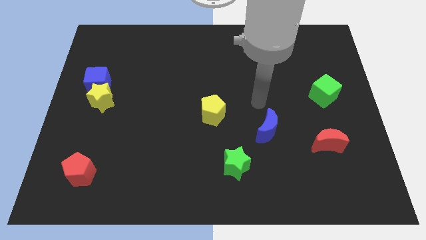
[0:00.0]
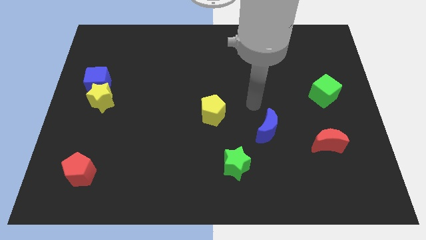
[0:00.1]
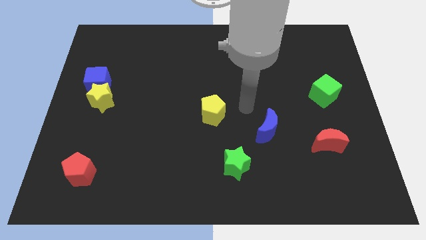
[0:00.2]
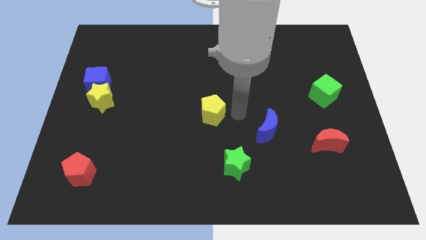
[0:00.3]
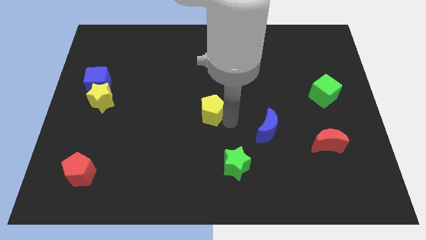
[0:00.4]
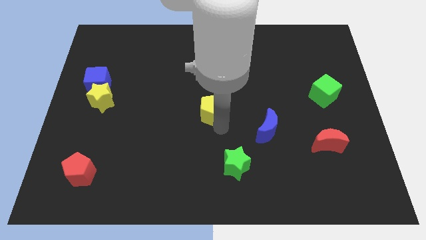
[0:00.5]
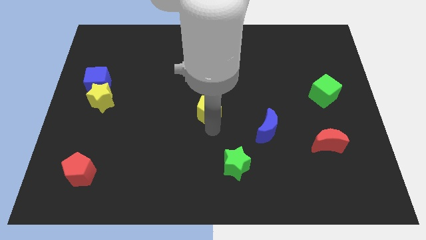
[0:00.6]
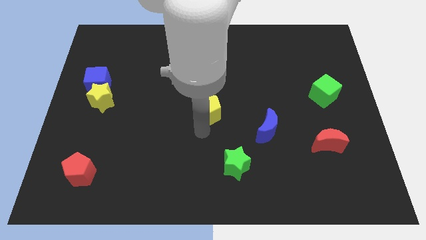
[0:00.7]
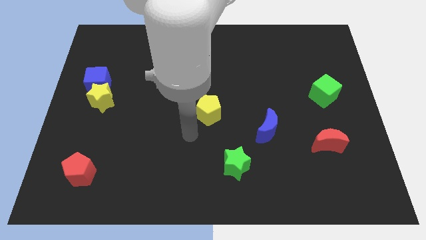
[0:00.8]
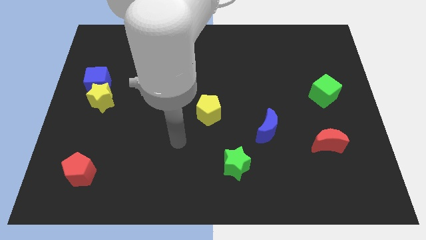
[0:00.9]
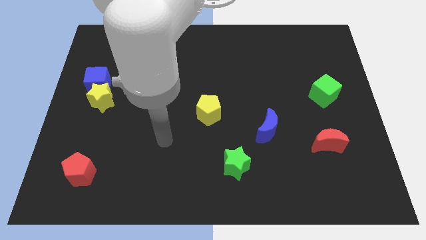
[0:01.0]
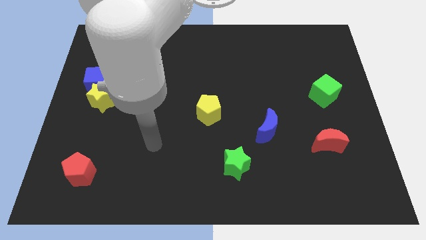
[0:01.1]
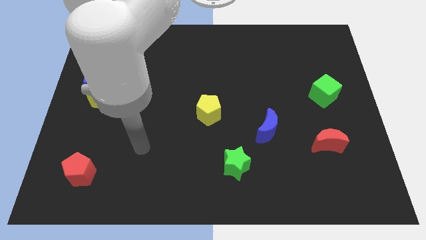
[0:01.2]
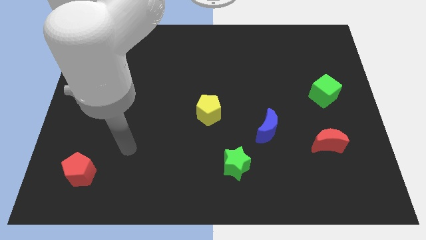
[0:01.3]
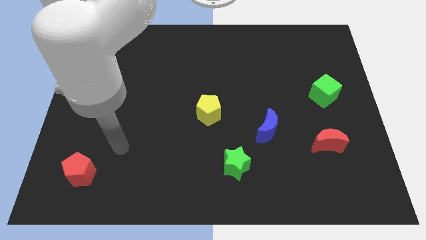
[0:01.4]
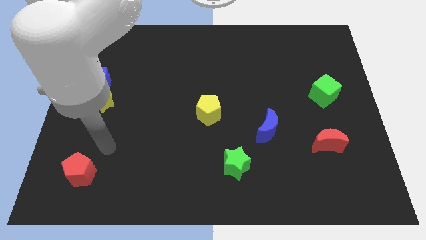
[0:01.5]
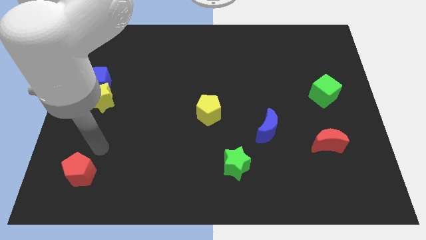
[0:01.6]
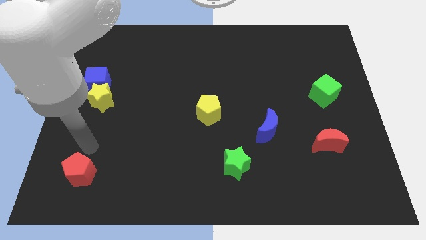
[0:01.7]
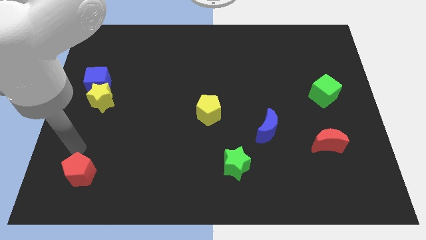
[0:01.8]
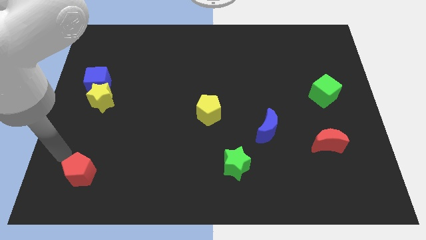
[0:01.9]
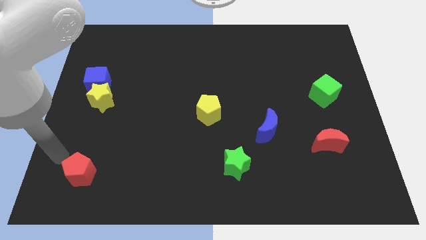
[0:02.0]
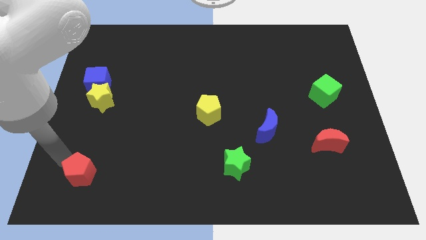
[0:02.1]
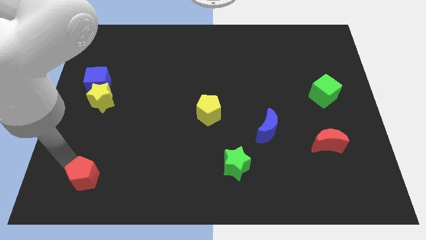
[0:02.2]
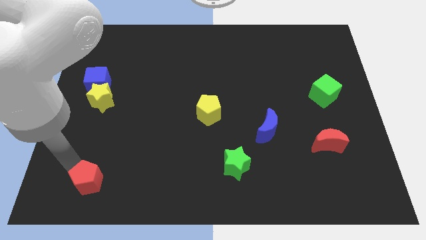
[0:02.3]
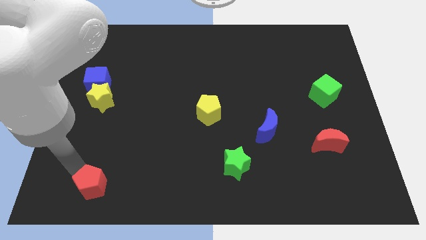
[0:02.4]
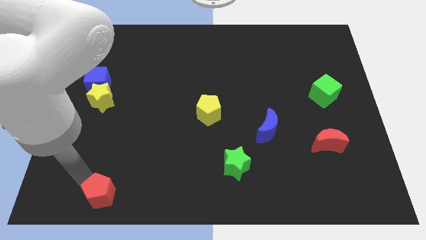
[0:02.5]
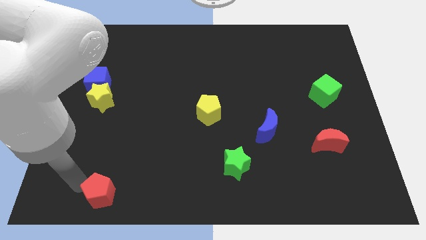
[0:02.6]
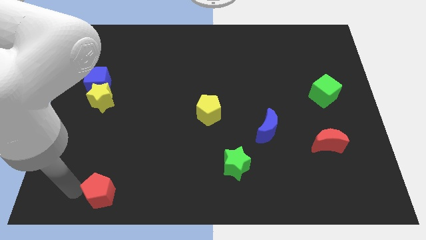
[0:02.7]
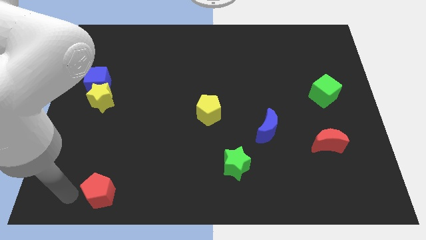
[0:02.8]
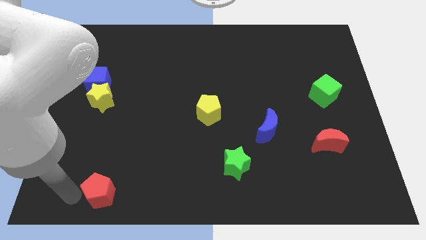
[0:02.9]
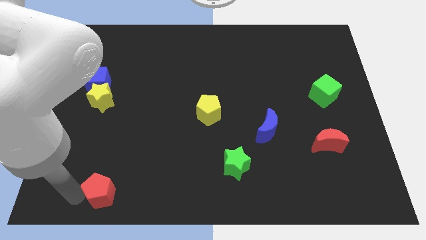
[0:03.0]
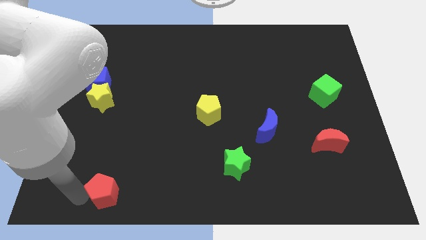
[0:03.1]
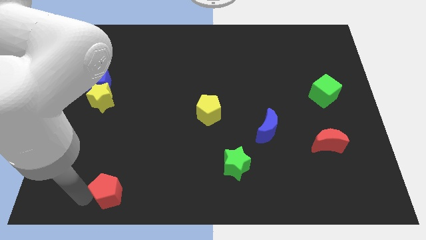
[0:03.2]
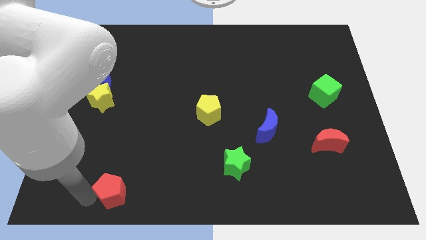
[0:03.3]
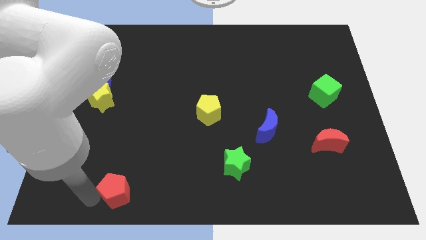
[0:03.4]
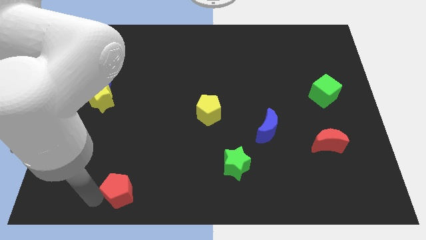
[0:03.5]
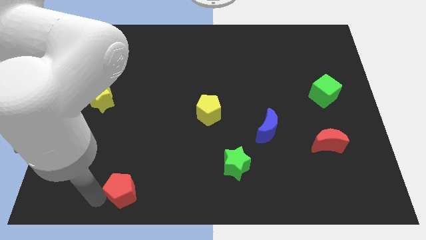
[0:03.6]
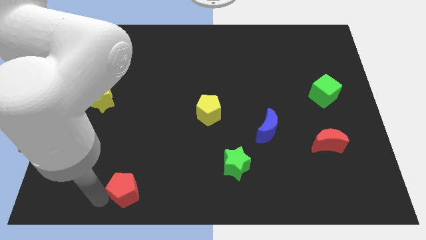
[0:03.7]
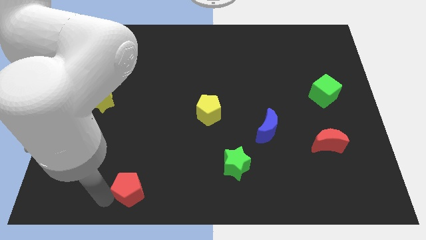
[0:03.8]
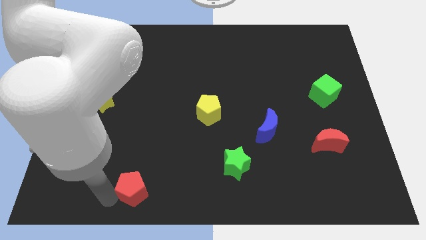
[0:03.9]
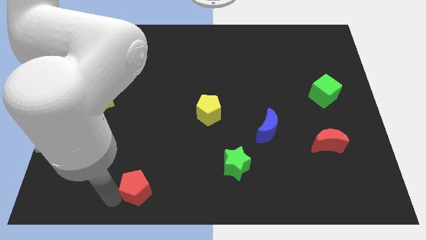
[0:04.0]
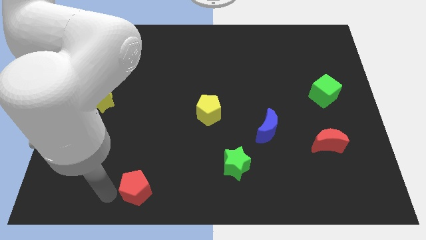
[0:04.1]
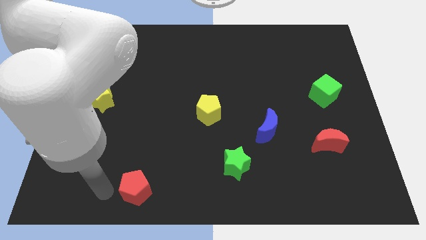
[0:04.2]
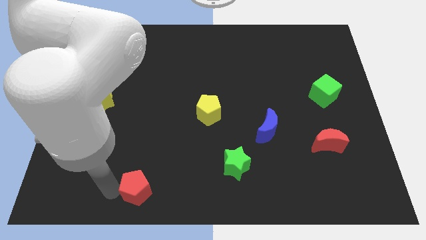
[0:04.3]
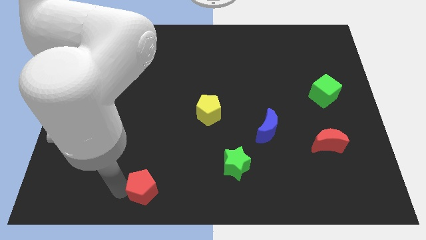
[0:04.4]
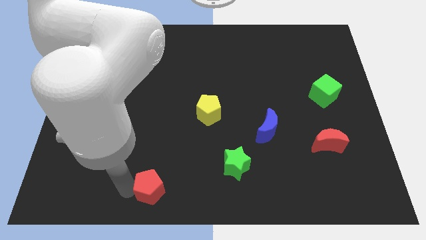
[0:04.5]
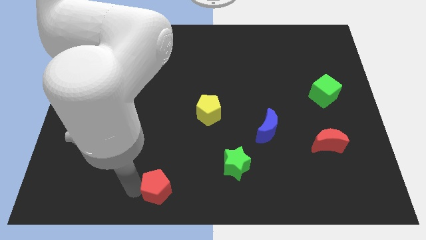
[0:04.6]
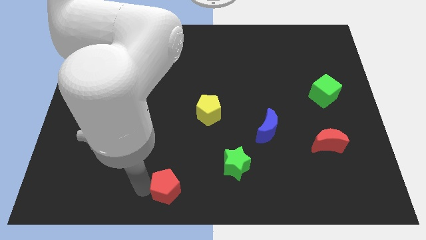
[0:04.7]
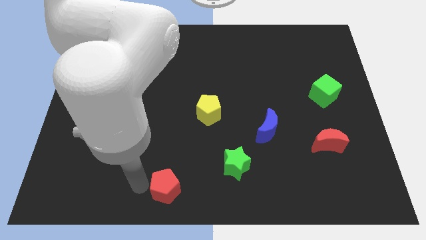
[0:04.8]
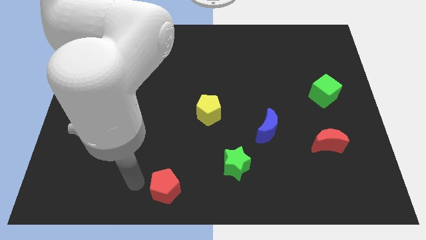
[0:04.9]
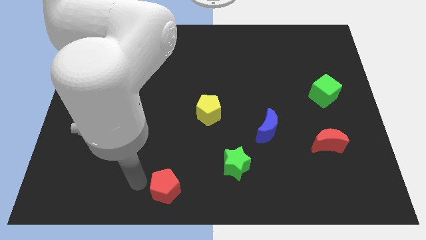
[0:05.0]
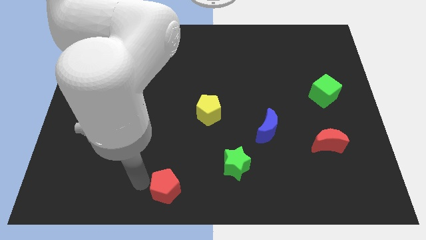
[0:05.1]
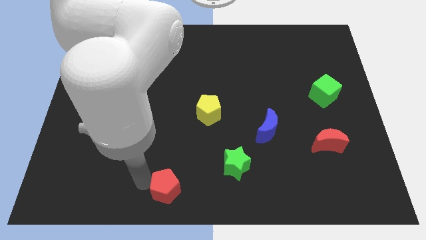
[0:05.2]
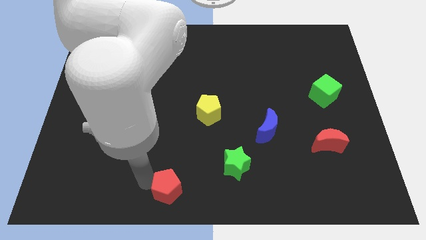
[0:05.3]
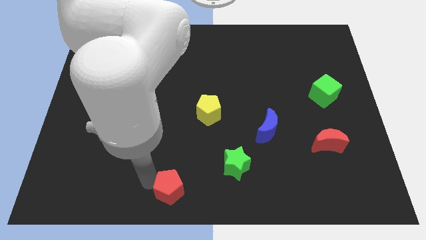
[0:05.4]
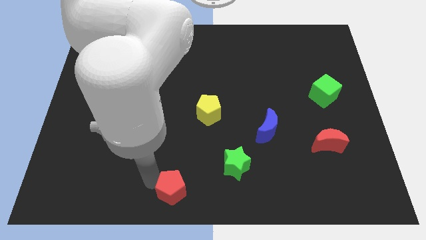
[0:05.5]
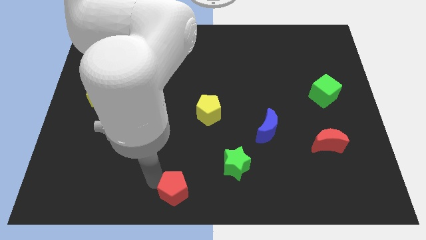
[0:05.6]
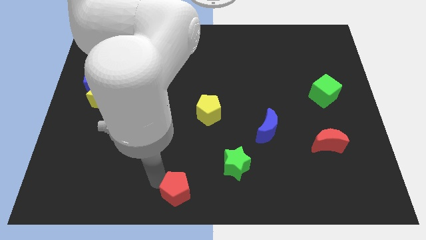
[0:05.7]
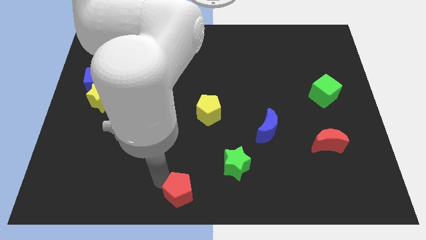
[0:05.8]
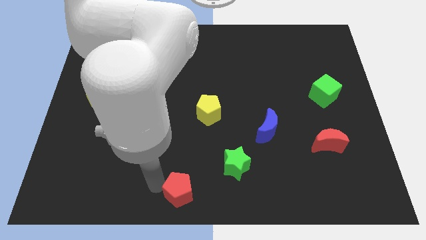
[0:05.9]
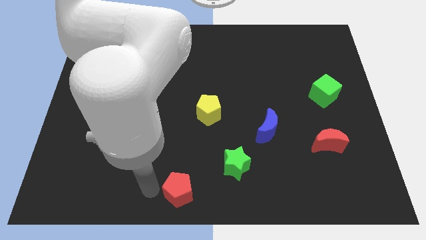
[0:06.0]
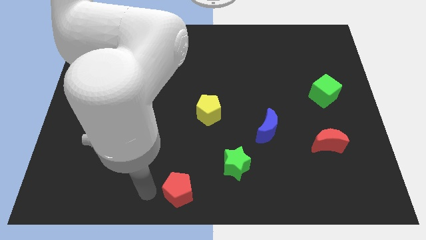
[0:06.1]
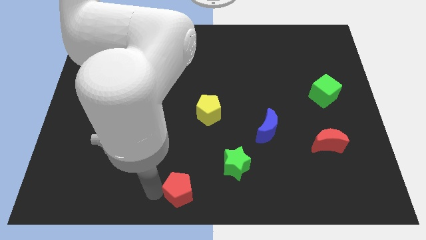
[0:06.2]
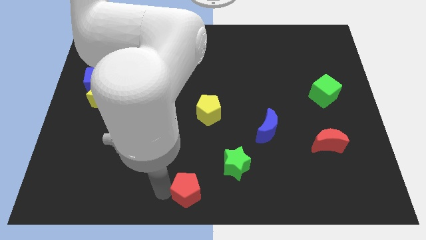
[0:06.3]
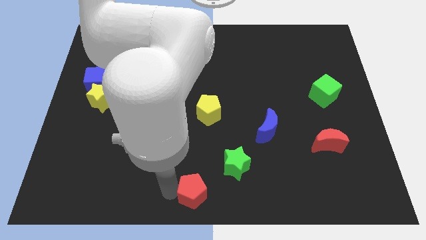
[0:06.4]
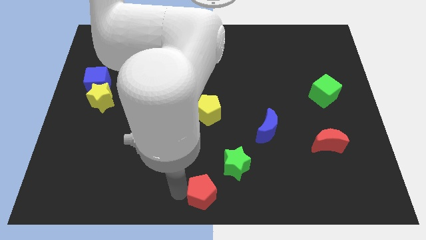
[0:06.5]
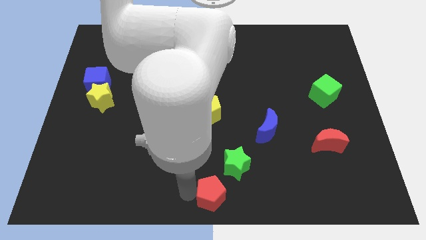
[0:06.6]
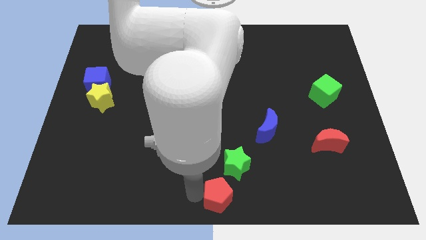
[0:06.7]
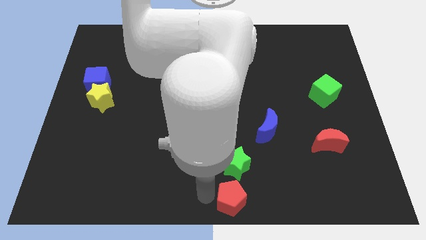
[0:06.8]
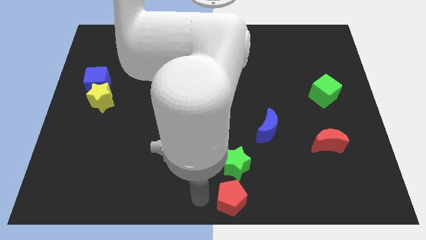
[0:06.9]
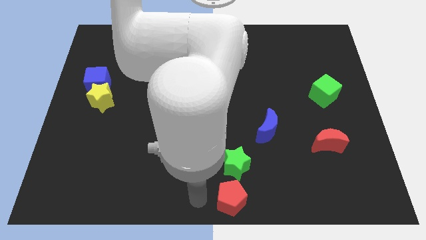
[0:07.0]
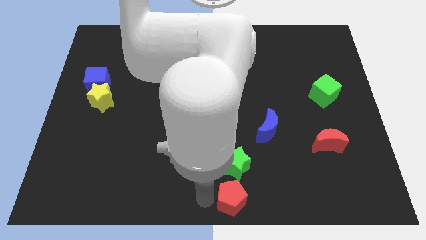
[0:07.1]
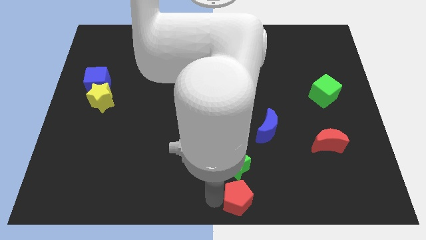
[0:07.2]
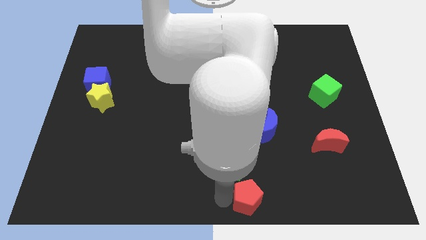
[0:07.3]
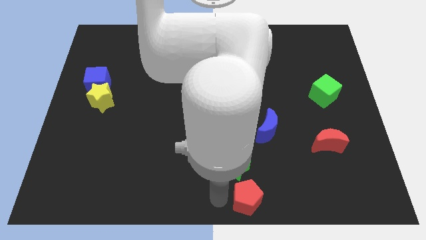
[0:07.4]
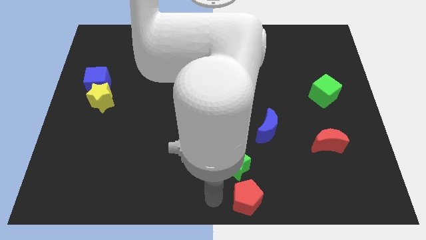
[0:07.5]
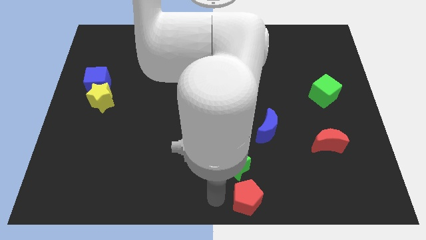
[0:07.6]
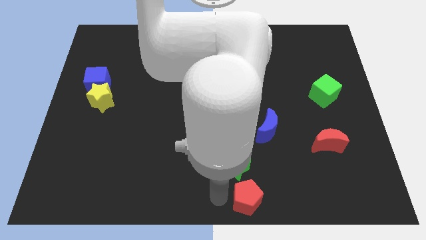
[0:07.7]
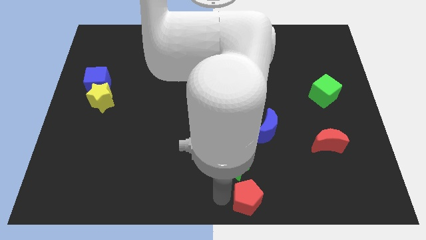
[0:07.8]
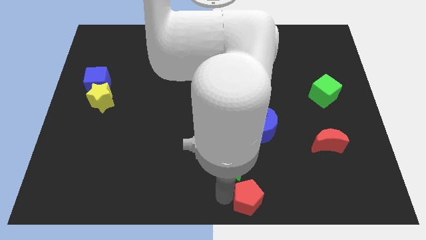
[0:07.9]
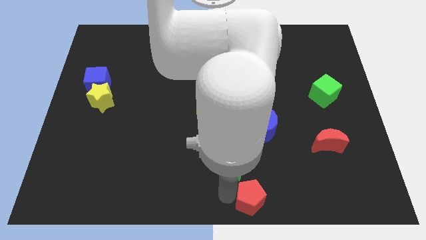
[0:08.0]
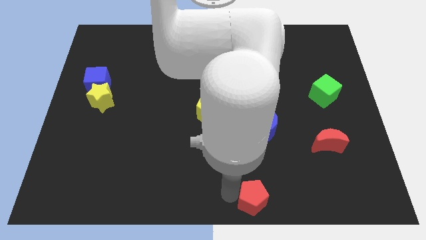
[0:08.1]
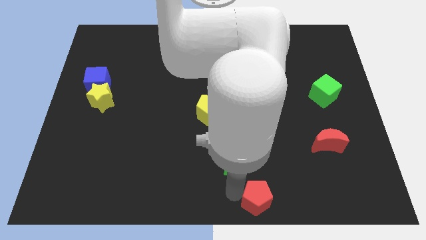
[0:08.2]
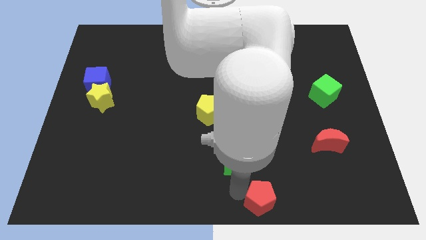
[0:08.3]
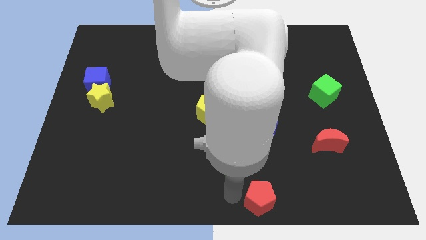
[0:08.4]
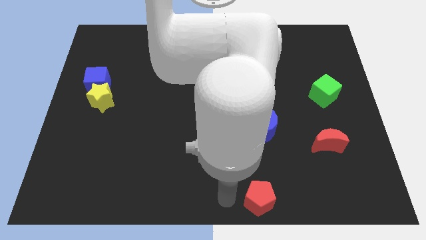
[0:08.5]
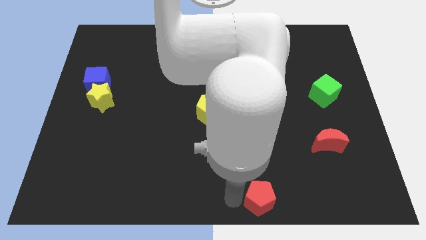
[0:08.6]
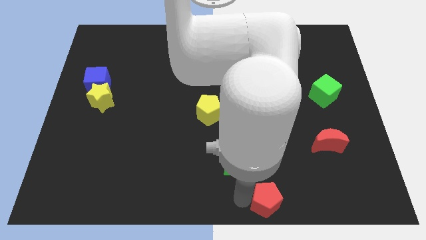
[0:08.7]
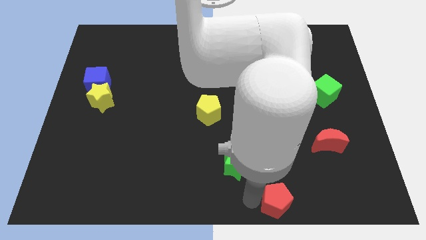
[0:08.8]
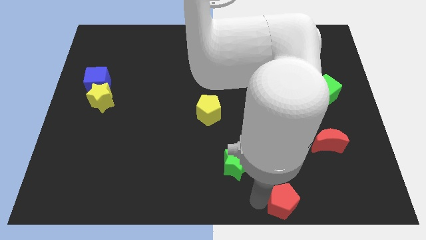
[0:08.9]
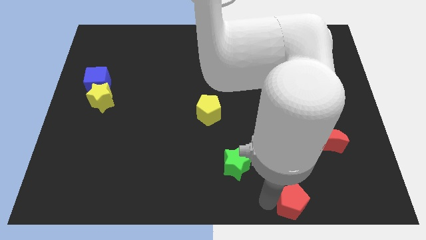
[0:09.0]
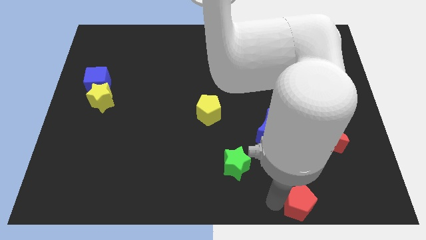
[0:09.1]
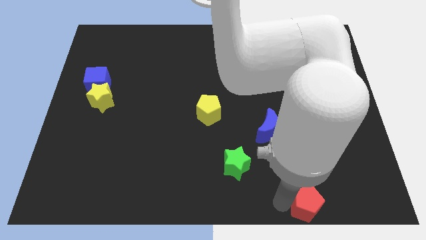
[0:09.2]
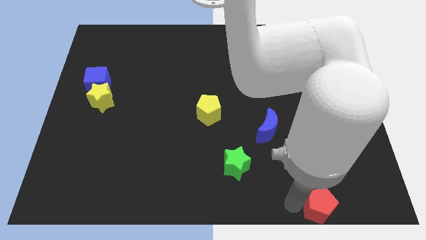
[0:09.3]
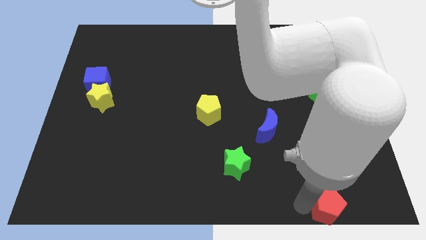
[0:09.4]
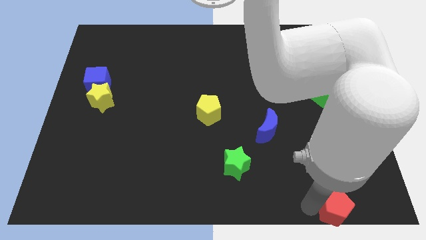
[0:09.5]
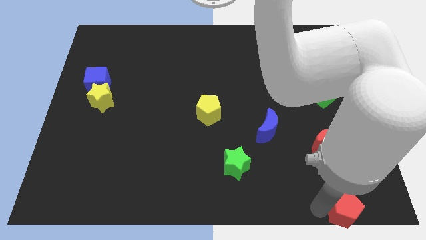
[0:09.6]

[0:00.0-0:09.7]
put the red pentagon to the bottom right
